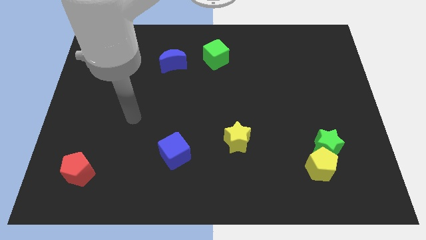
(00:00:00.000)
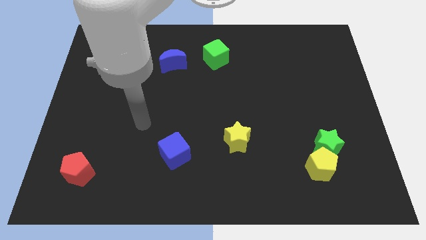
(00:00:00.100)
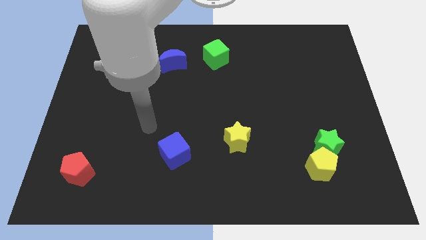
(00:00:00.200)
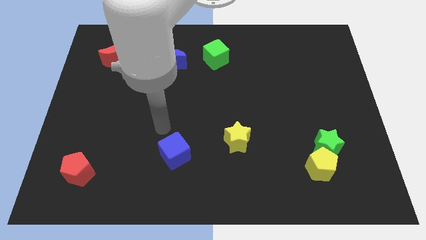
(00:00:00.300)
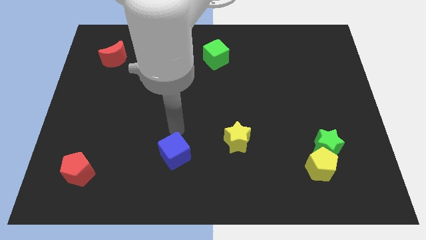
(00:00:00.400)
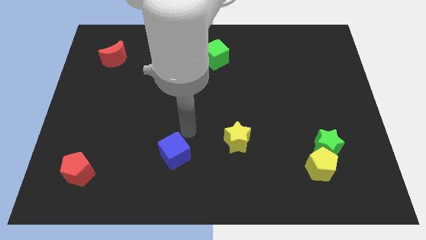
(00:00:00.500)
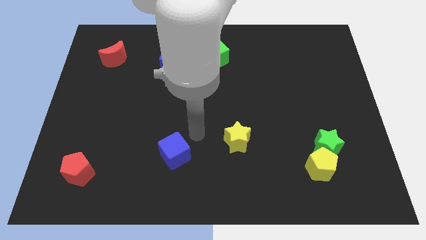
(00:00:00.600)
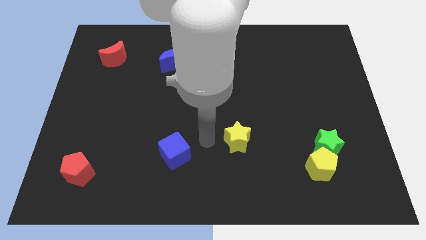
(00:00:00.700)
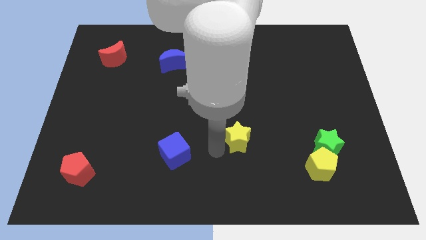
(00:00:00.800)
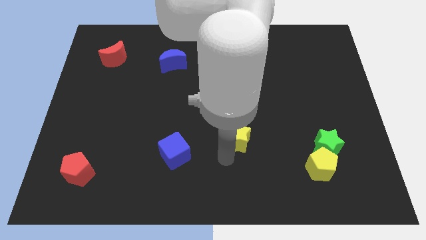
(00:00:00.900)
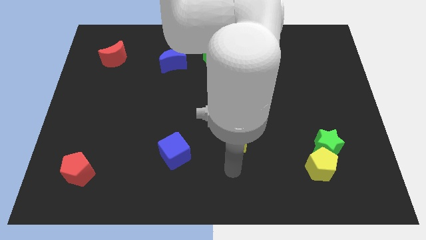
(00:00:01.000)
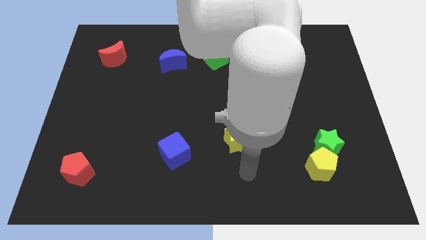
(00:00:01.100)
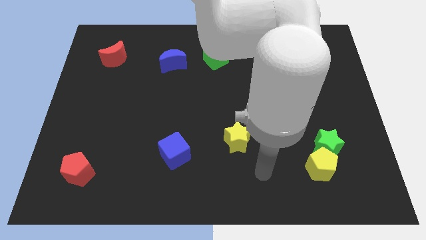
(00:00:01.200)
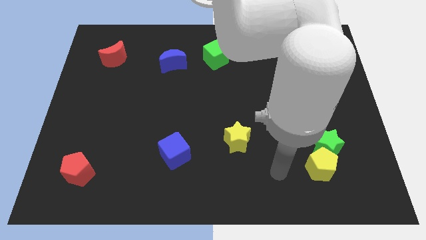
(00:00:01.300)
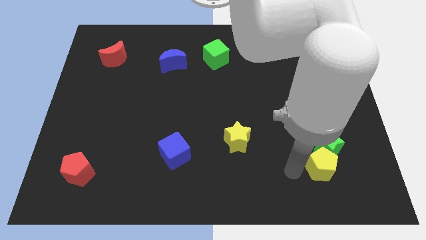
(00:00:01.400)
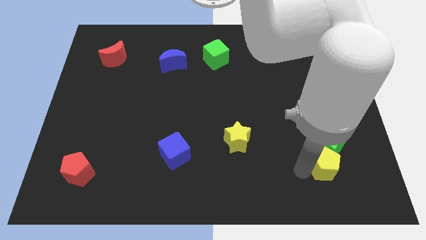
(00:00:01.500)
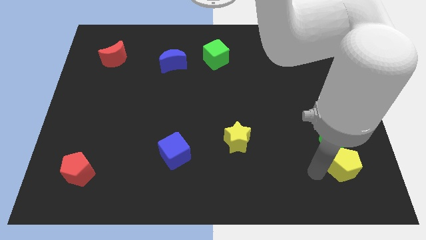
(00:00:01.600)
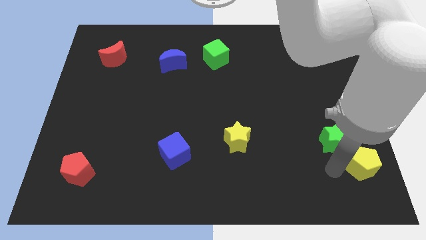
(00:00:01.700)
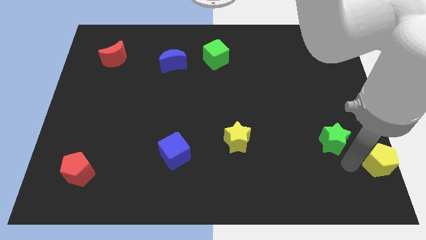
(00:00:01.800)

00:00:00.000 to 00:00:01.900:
move the green star away from the yellow pentagon

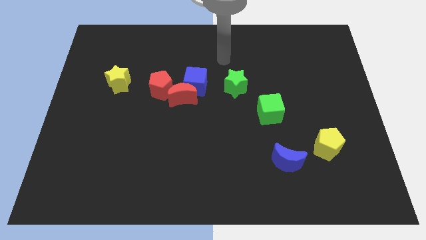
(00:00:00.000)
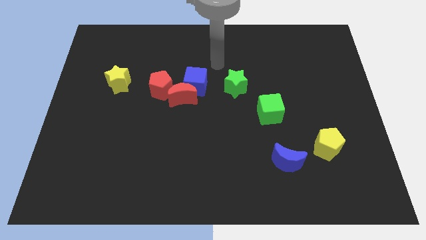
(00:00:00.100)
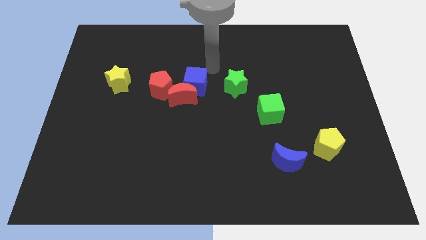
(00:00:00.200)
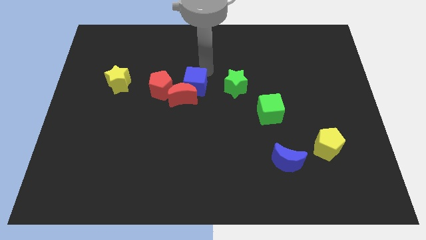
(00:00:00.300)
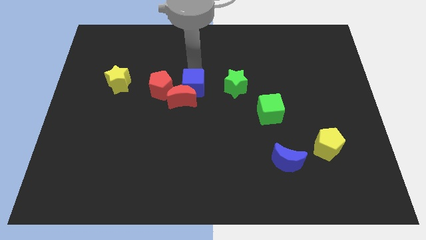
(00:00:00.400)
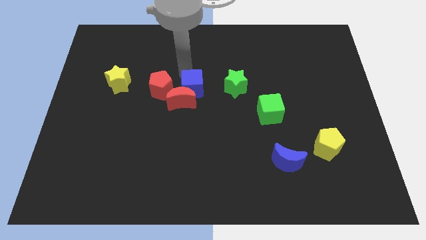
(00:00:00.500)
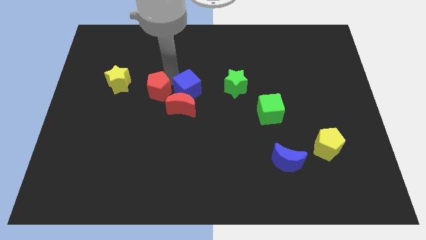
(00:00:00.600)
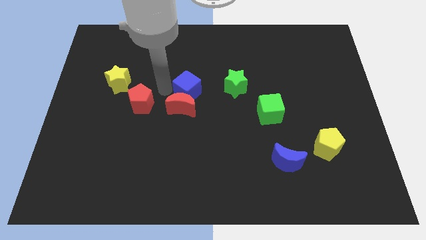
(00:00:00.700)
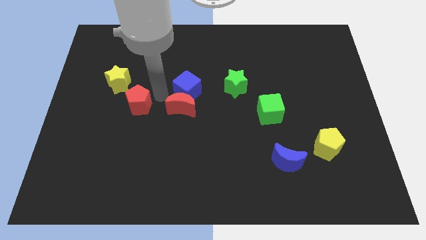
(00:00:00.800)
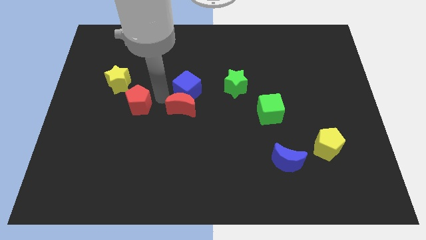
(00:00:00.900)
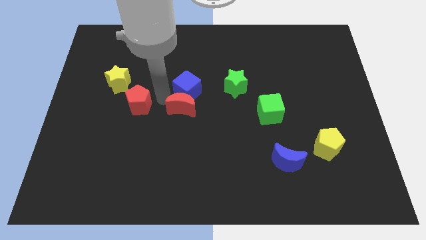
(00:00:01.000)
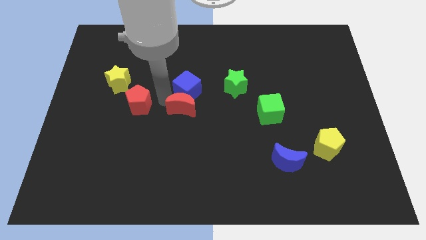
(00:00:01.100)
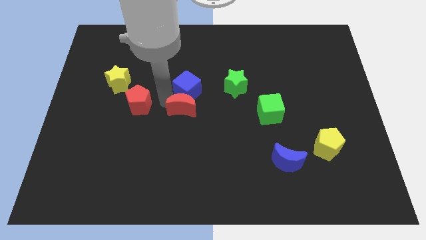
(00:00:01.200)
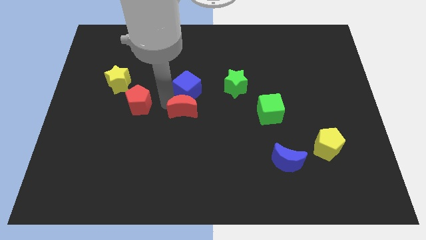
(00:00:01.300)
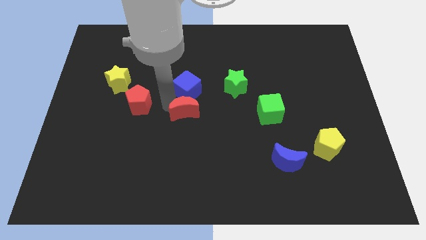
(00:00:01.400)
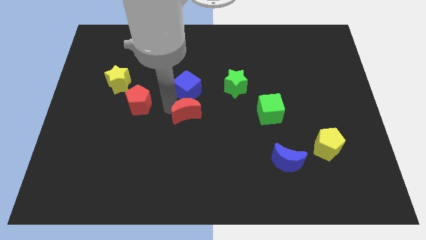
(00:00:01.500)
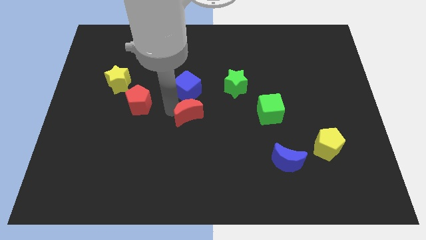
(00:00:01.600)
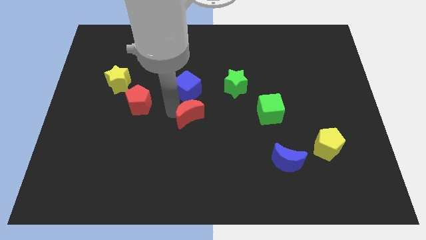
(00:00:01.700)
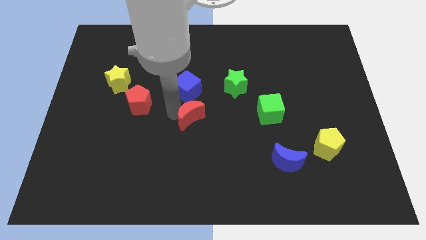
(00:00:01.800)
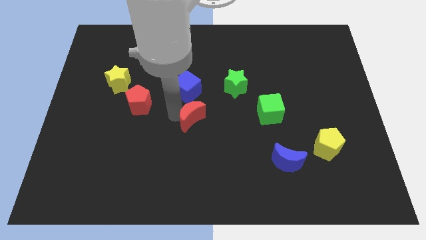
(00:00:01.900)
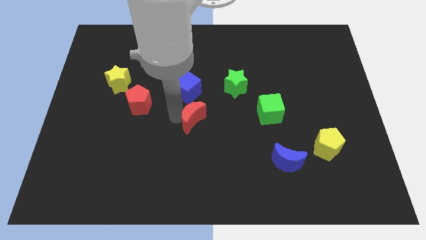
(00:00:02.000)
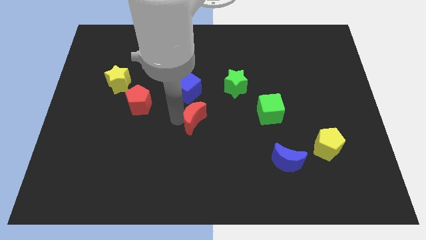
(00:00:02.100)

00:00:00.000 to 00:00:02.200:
pull the red moon apart from the blue cube and red pentagon

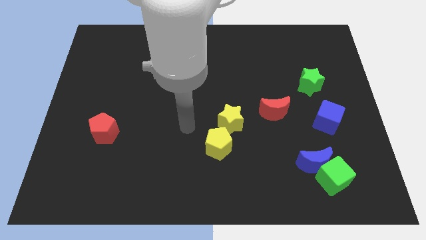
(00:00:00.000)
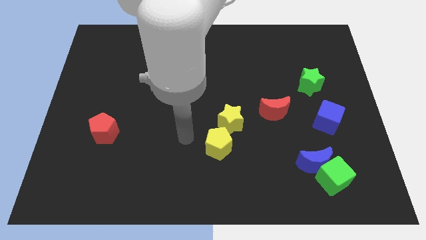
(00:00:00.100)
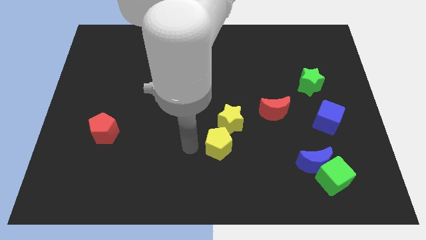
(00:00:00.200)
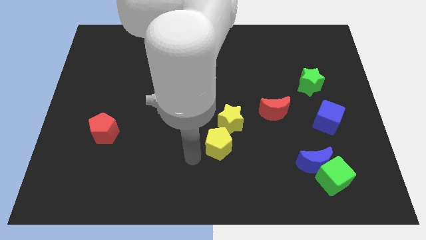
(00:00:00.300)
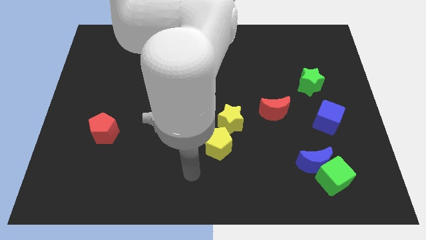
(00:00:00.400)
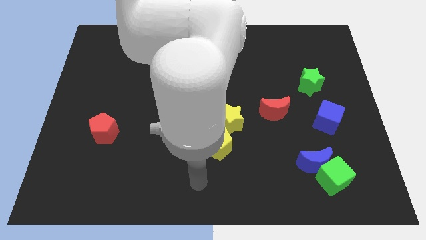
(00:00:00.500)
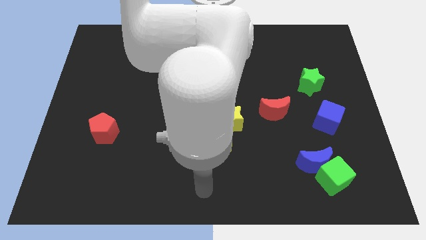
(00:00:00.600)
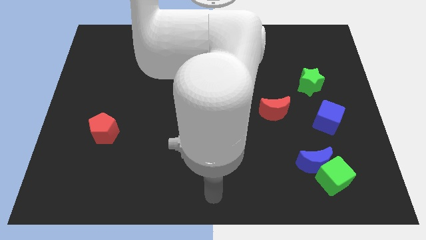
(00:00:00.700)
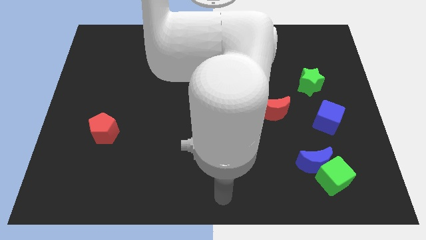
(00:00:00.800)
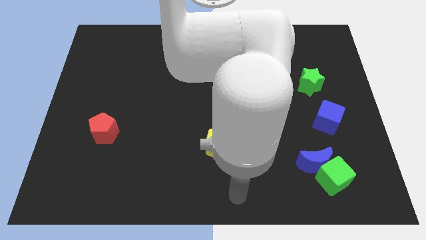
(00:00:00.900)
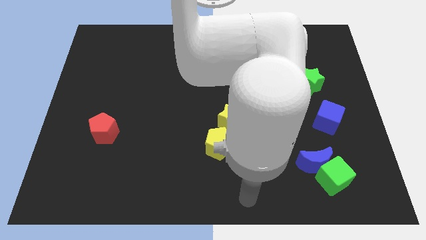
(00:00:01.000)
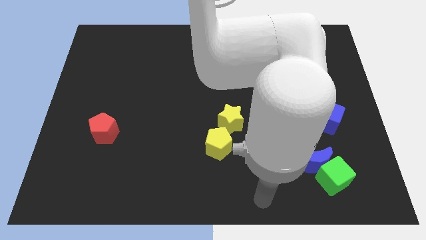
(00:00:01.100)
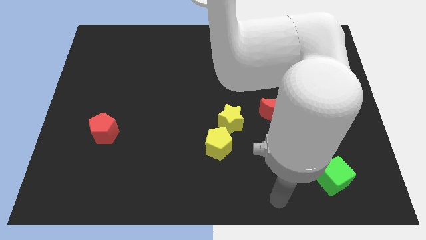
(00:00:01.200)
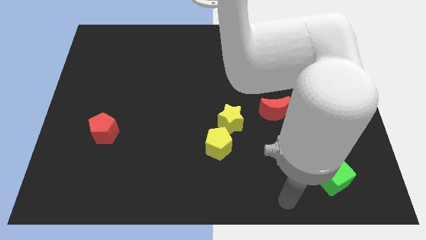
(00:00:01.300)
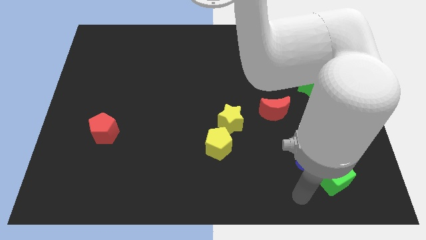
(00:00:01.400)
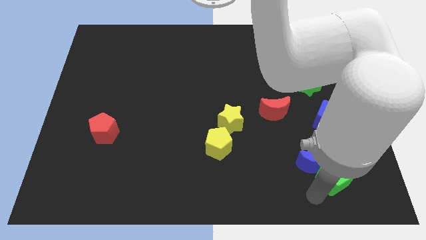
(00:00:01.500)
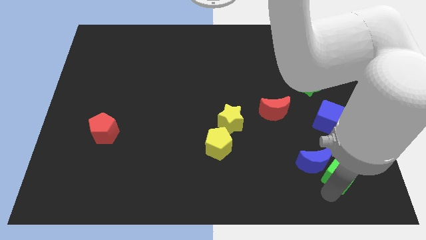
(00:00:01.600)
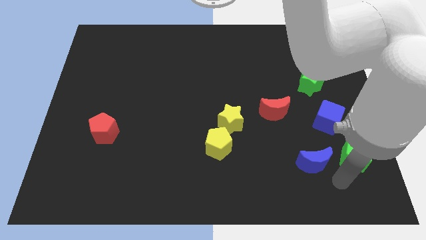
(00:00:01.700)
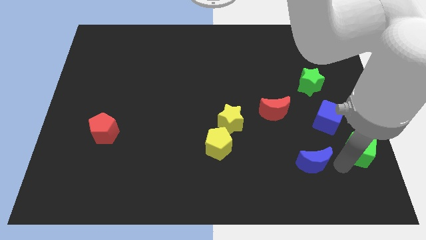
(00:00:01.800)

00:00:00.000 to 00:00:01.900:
pull the blue moon apart from the green cube

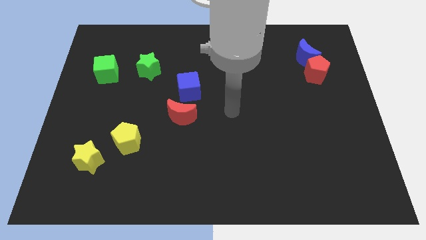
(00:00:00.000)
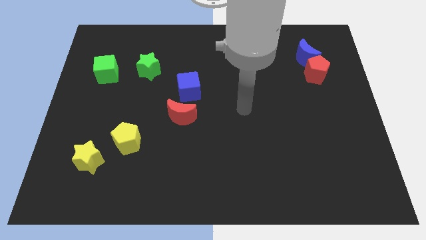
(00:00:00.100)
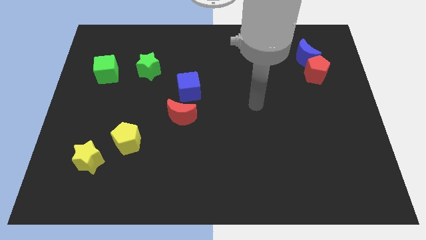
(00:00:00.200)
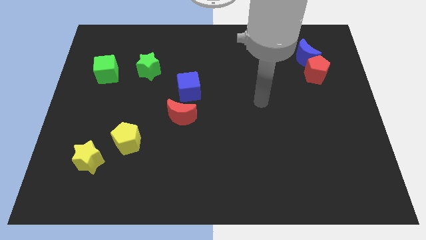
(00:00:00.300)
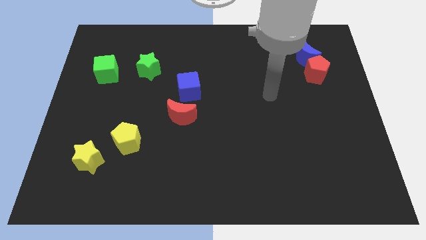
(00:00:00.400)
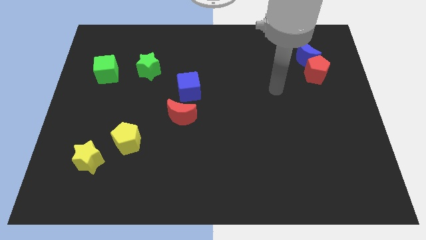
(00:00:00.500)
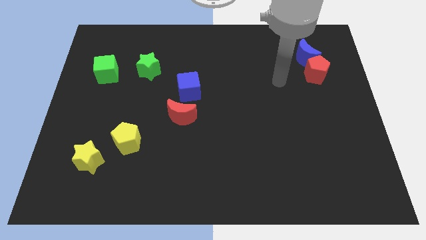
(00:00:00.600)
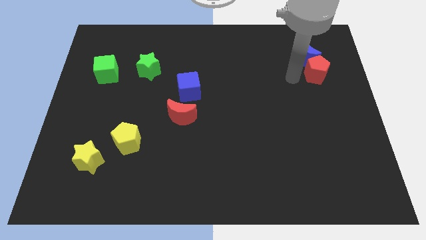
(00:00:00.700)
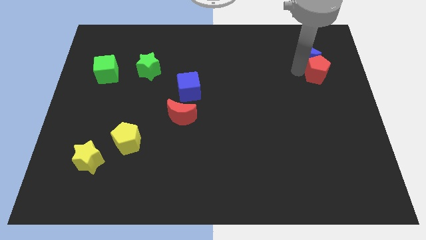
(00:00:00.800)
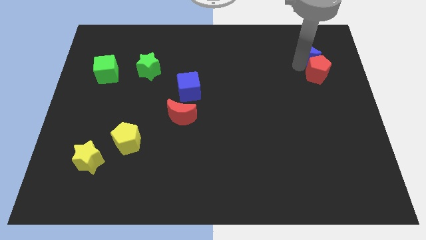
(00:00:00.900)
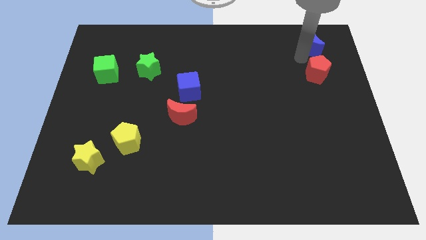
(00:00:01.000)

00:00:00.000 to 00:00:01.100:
move the red pentagon away from the blue moon

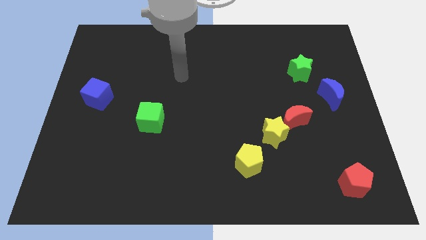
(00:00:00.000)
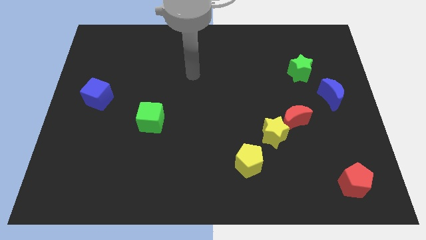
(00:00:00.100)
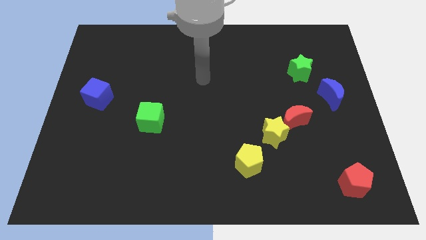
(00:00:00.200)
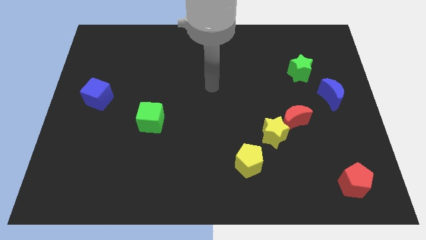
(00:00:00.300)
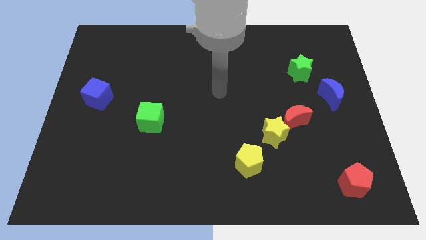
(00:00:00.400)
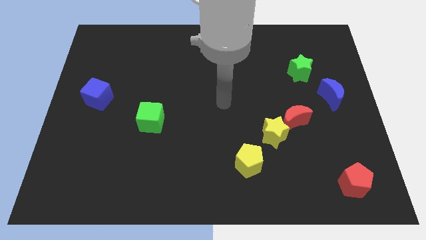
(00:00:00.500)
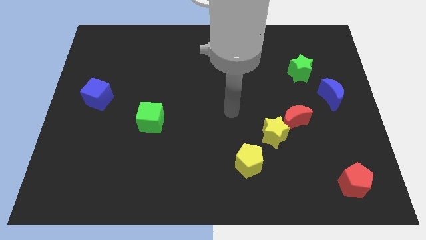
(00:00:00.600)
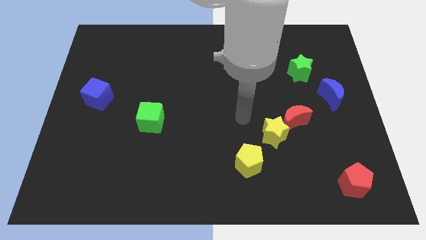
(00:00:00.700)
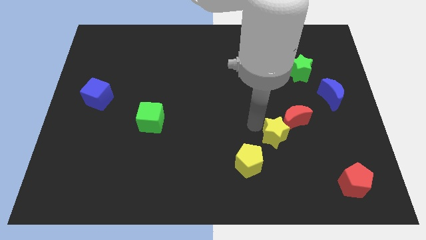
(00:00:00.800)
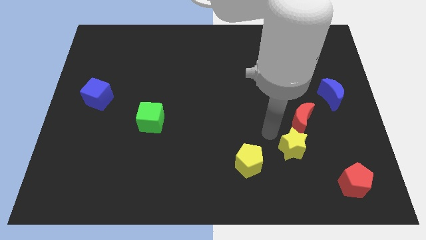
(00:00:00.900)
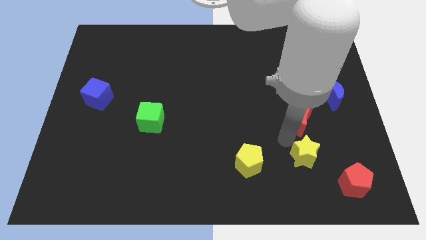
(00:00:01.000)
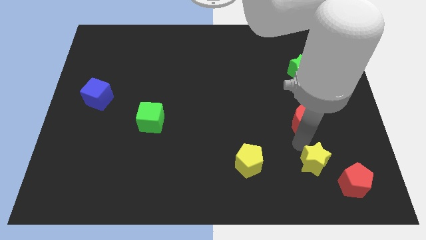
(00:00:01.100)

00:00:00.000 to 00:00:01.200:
pull the red moon apart from the yellow star

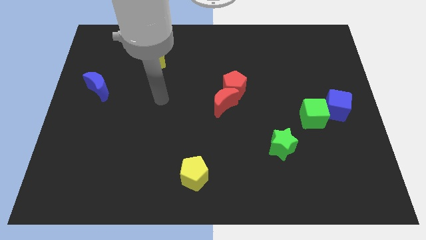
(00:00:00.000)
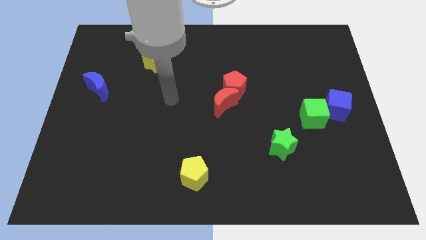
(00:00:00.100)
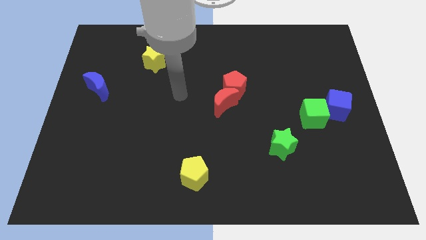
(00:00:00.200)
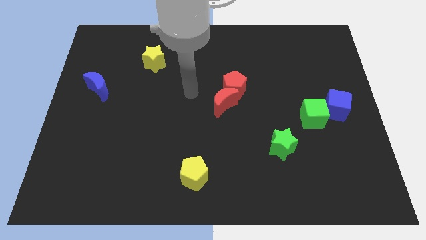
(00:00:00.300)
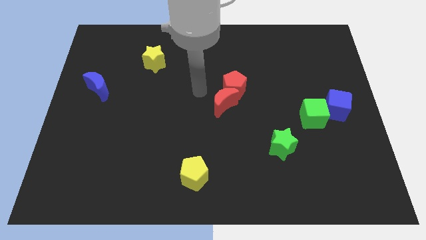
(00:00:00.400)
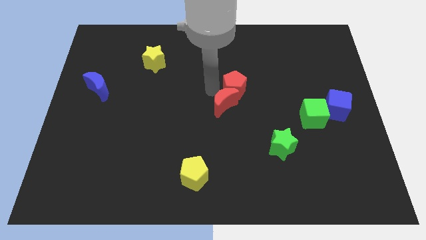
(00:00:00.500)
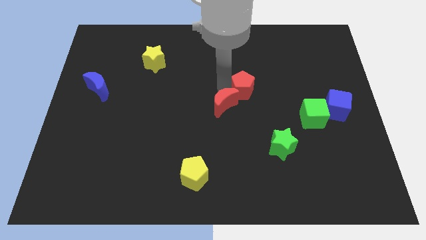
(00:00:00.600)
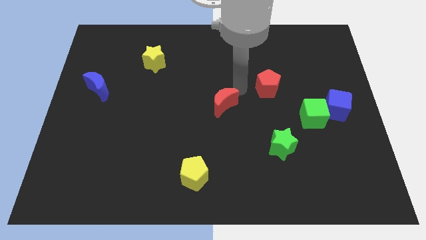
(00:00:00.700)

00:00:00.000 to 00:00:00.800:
move the red moon away from the red pentagon
